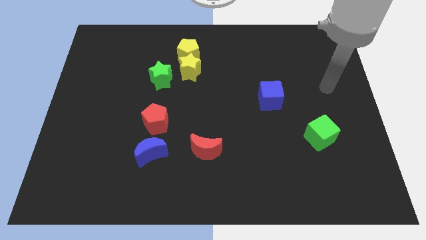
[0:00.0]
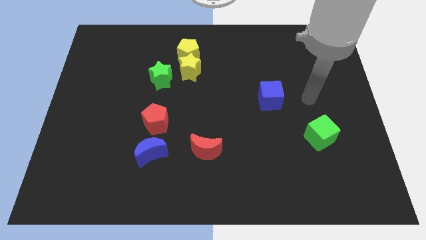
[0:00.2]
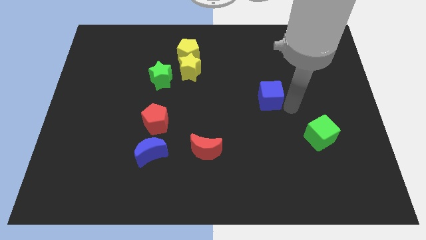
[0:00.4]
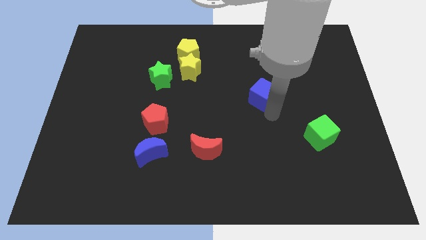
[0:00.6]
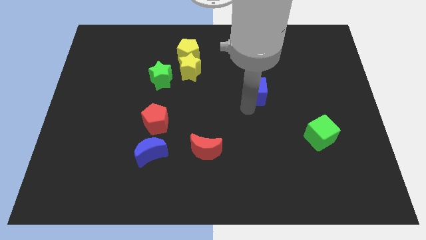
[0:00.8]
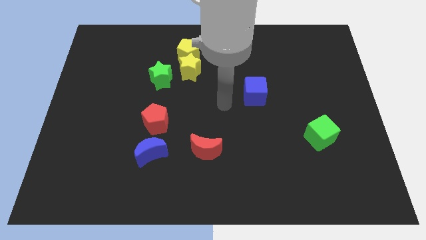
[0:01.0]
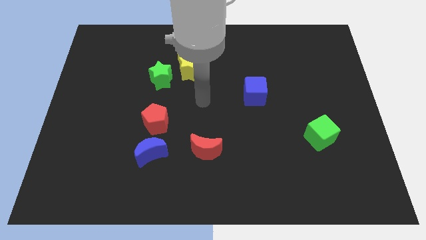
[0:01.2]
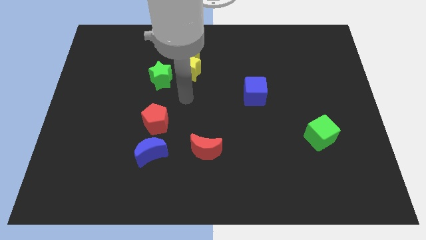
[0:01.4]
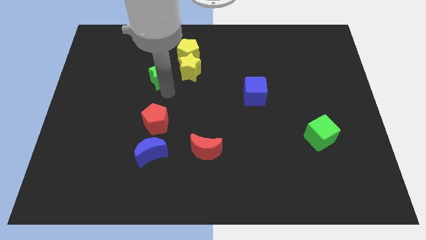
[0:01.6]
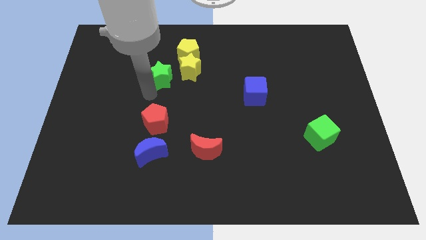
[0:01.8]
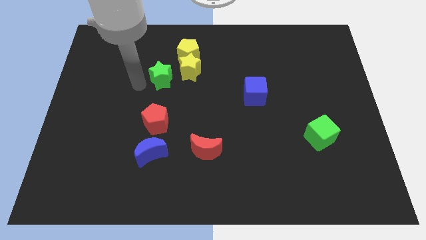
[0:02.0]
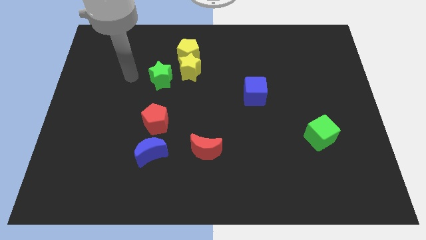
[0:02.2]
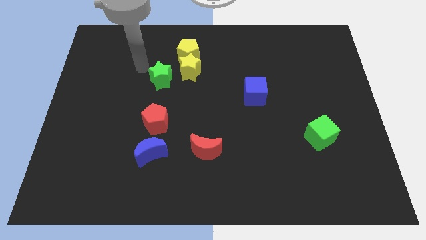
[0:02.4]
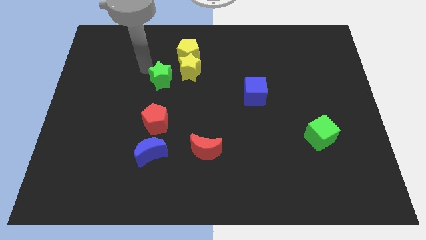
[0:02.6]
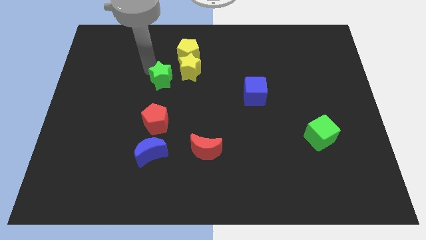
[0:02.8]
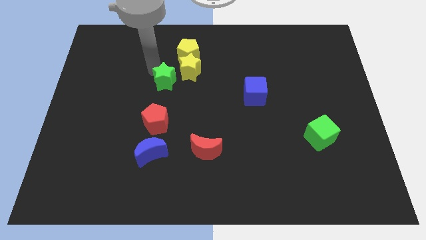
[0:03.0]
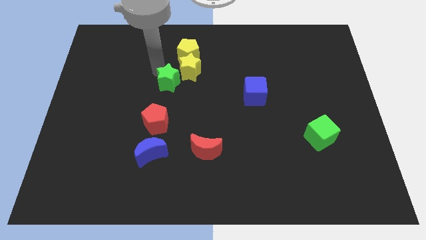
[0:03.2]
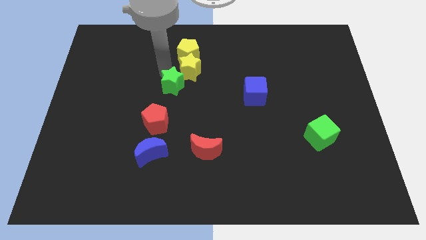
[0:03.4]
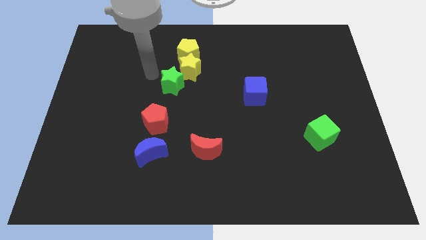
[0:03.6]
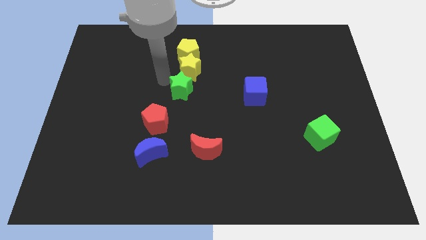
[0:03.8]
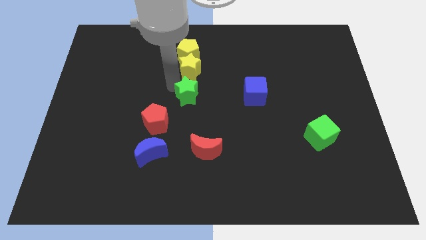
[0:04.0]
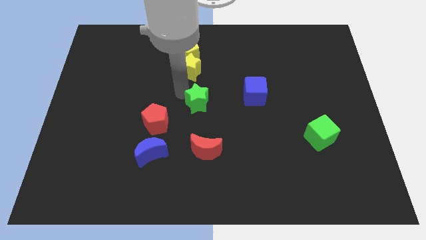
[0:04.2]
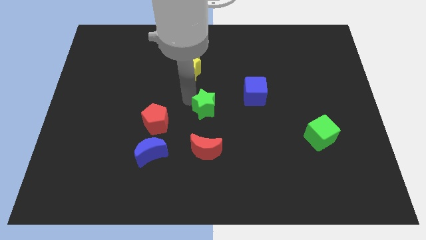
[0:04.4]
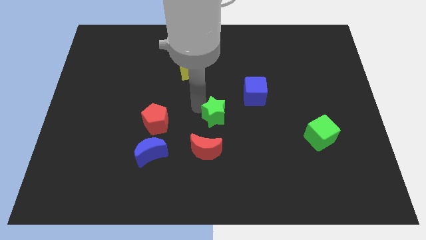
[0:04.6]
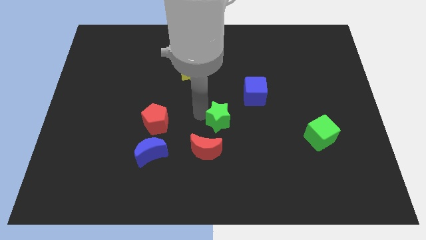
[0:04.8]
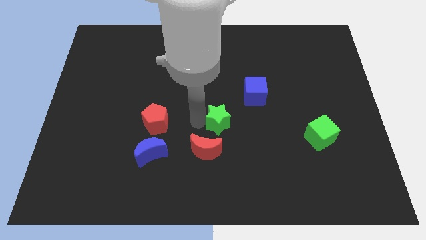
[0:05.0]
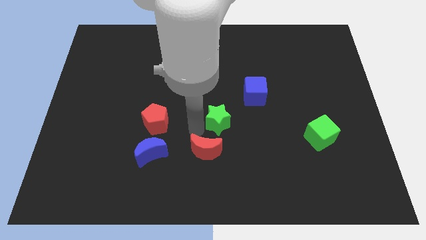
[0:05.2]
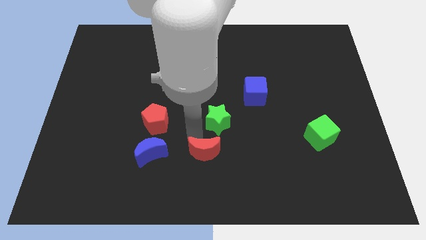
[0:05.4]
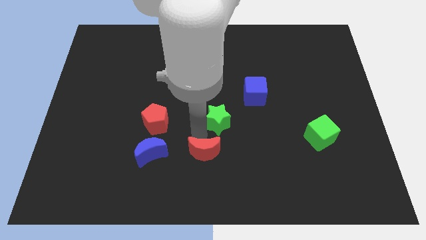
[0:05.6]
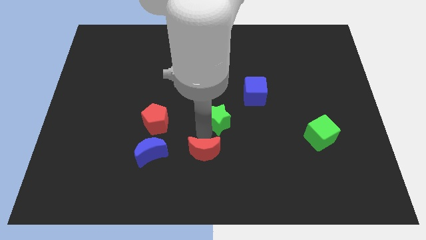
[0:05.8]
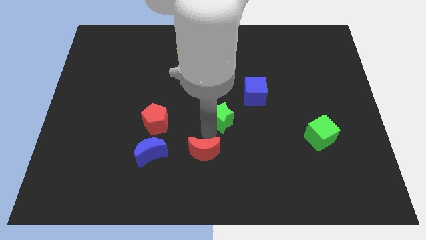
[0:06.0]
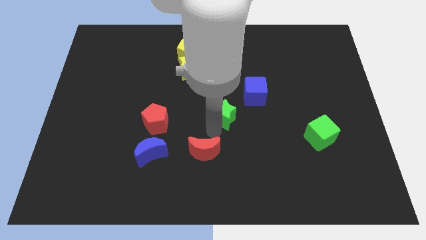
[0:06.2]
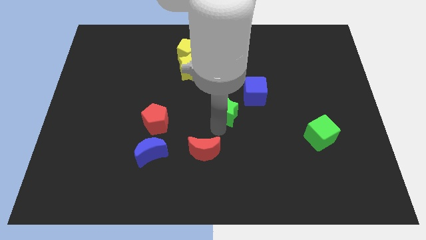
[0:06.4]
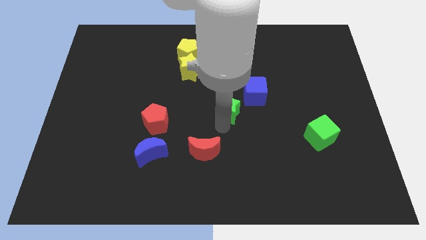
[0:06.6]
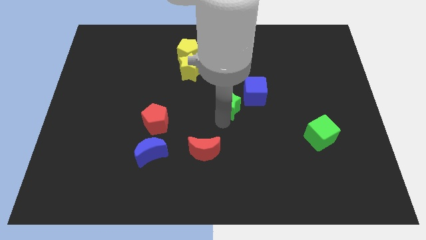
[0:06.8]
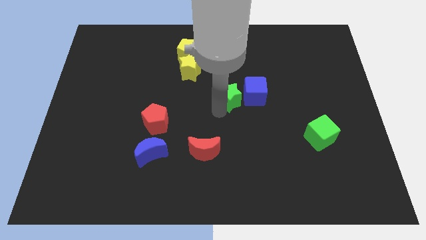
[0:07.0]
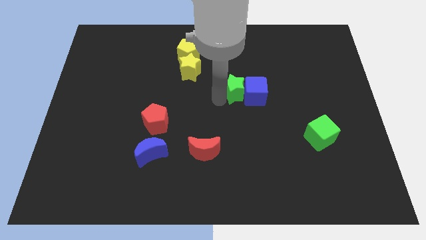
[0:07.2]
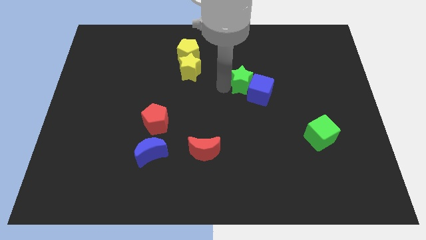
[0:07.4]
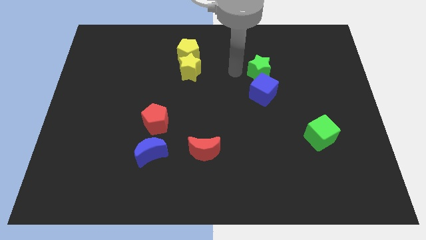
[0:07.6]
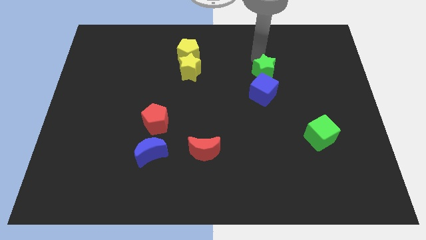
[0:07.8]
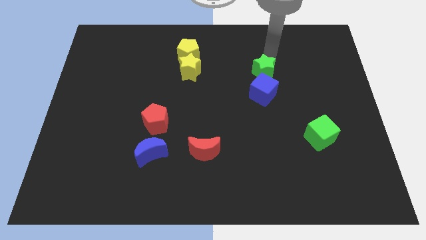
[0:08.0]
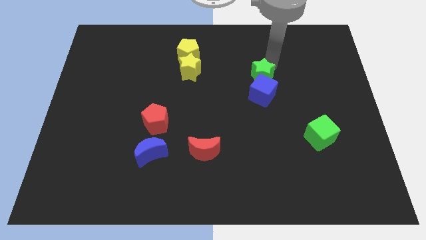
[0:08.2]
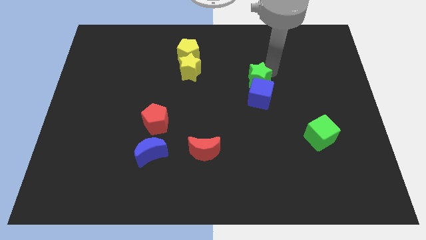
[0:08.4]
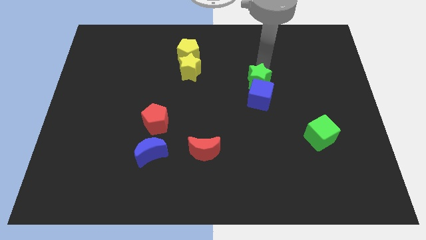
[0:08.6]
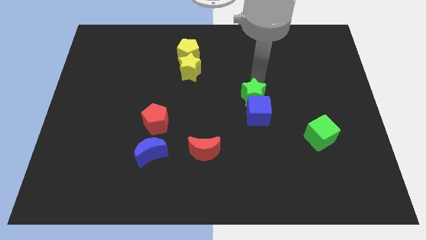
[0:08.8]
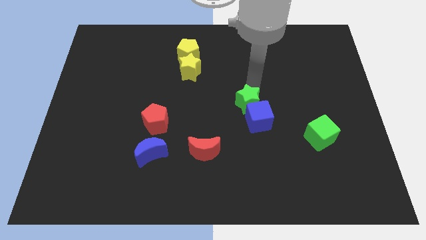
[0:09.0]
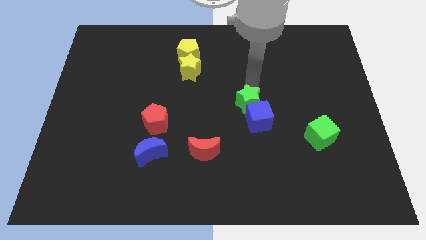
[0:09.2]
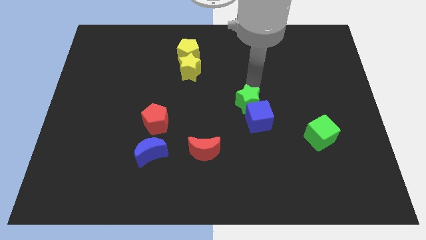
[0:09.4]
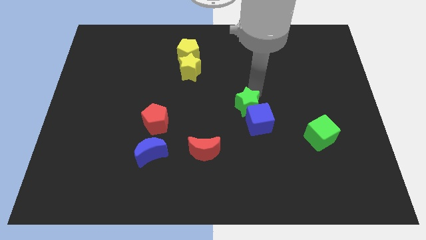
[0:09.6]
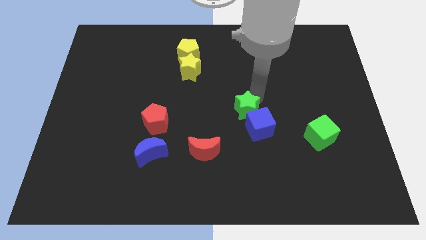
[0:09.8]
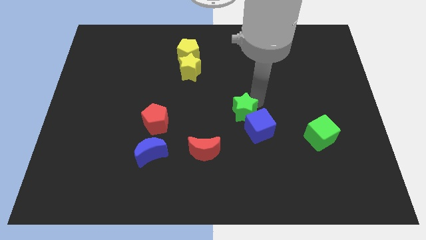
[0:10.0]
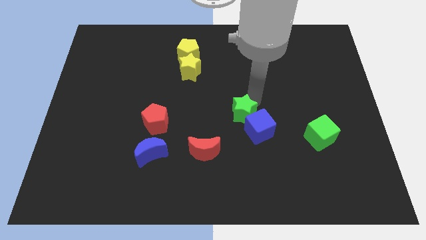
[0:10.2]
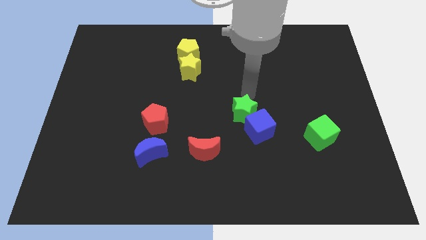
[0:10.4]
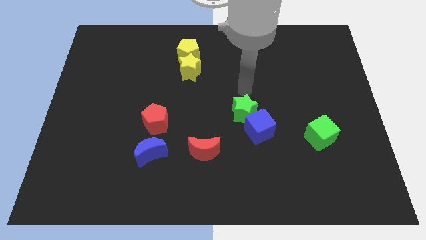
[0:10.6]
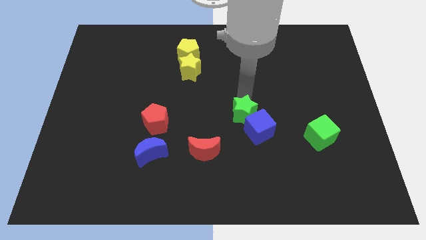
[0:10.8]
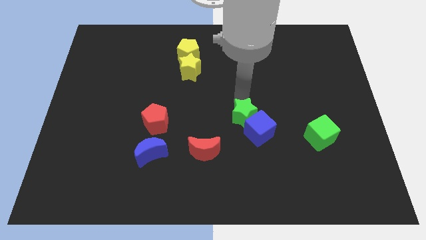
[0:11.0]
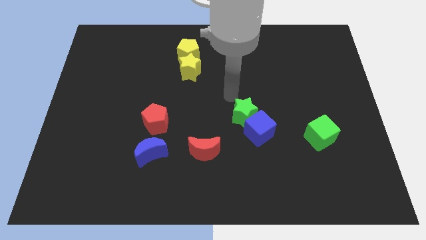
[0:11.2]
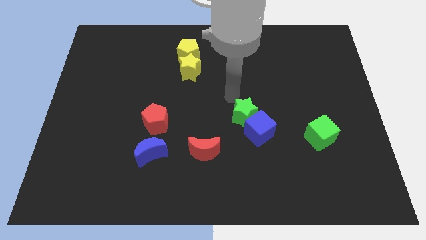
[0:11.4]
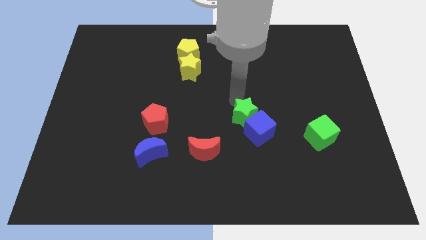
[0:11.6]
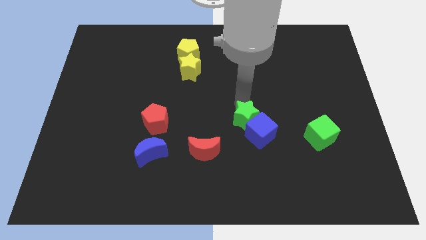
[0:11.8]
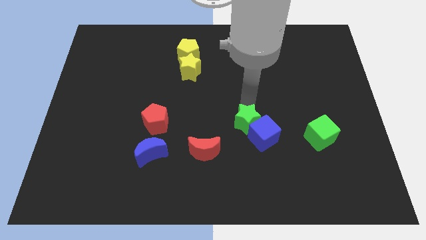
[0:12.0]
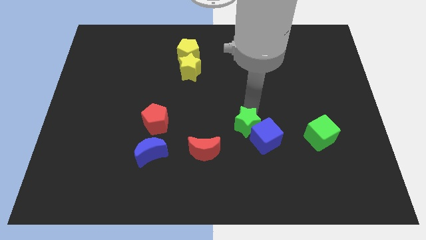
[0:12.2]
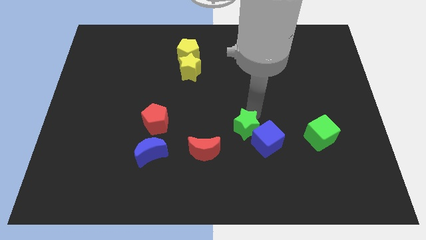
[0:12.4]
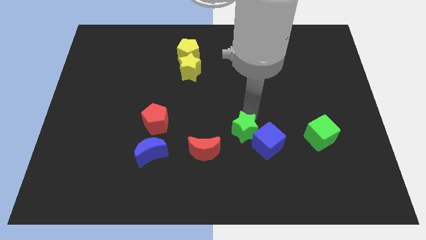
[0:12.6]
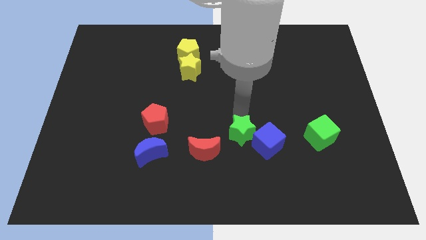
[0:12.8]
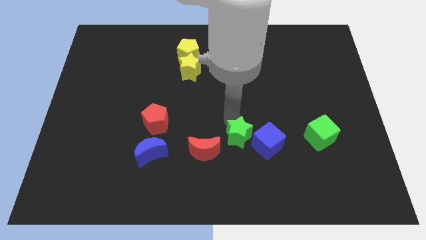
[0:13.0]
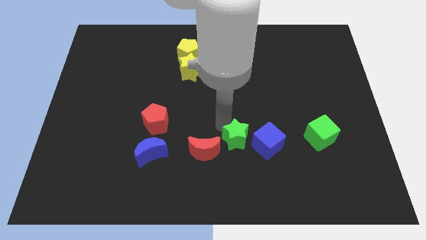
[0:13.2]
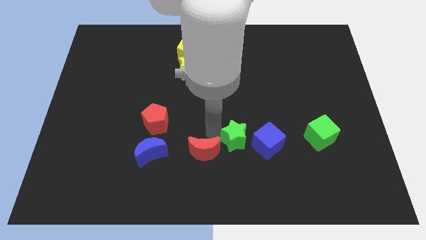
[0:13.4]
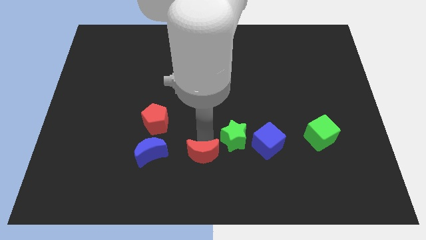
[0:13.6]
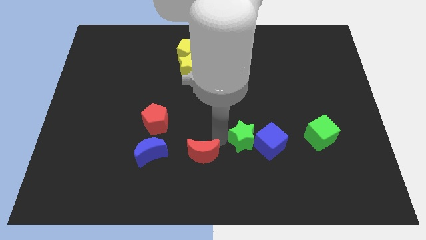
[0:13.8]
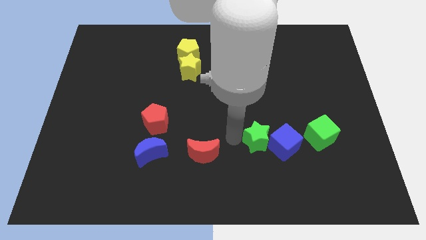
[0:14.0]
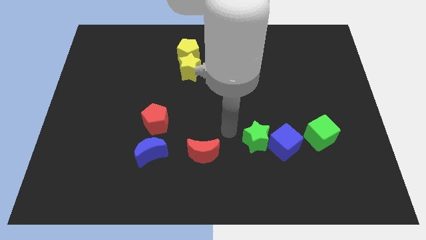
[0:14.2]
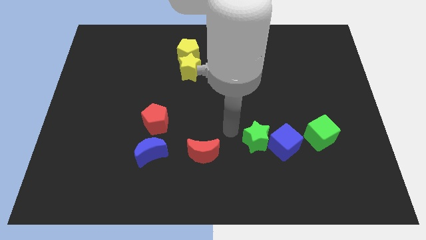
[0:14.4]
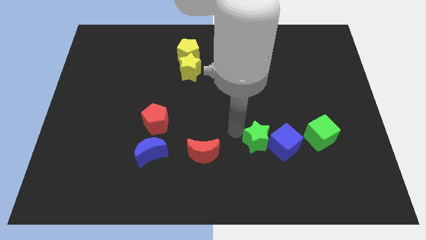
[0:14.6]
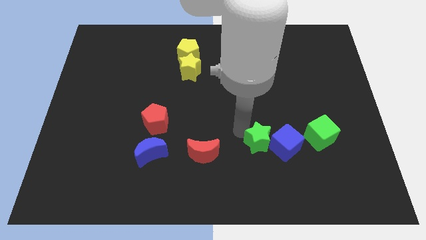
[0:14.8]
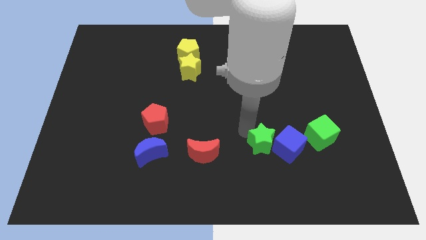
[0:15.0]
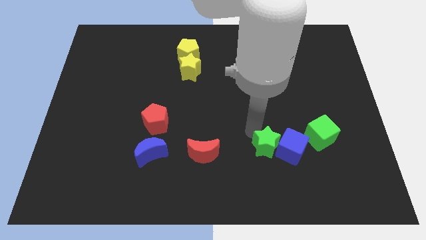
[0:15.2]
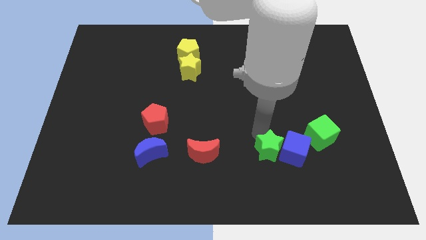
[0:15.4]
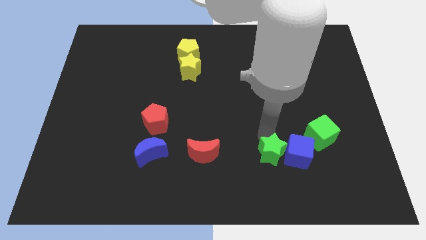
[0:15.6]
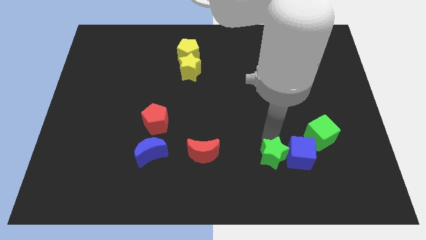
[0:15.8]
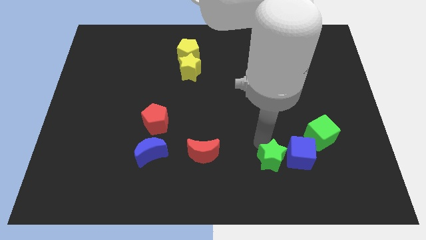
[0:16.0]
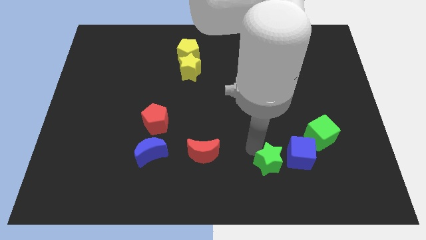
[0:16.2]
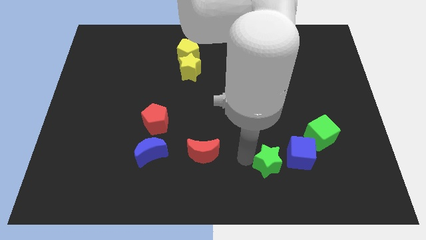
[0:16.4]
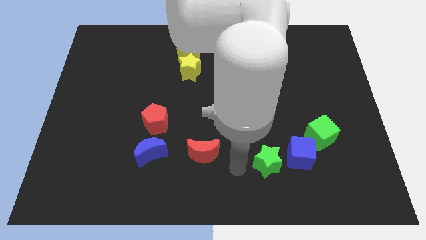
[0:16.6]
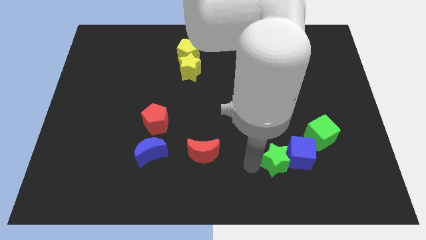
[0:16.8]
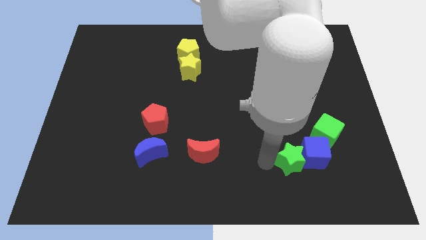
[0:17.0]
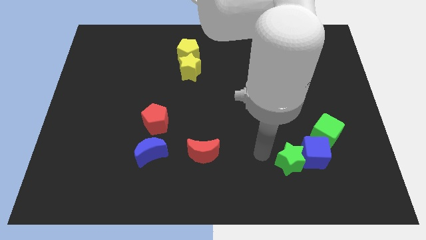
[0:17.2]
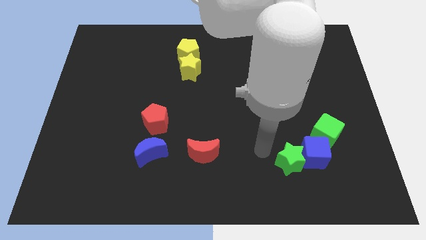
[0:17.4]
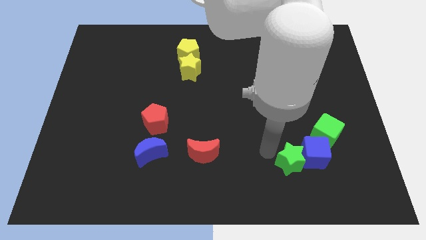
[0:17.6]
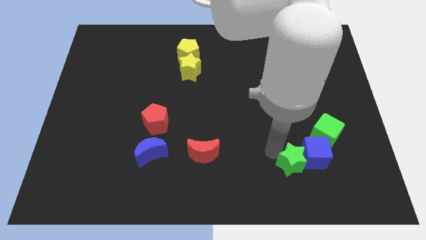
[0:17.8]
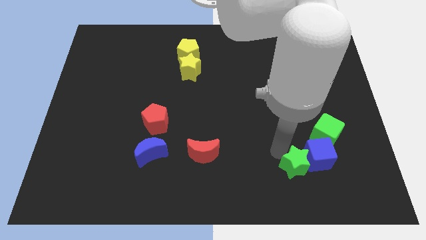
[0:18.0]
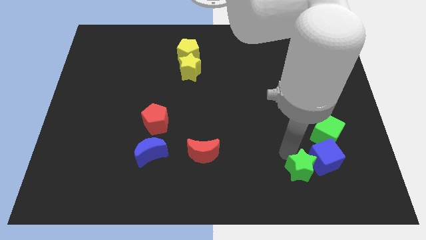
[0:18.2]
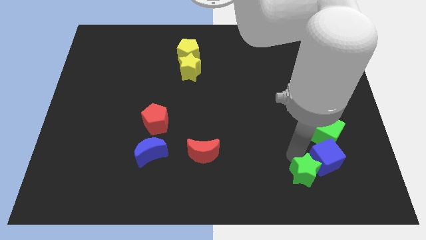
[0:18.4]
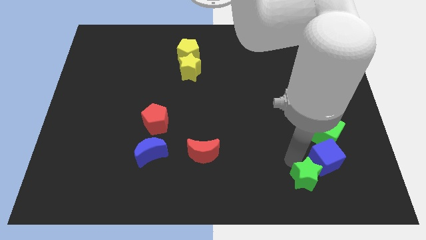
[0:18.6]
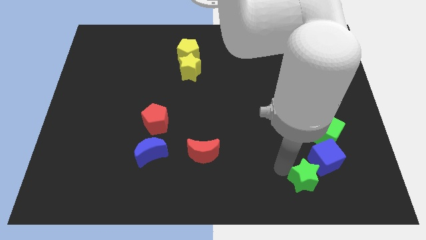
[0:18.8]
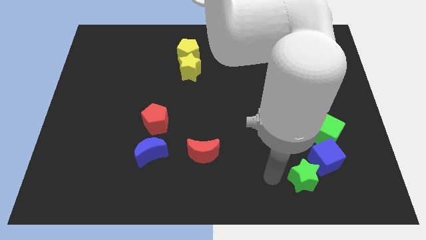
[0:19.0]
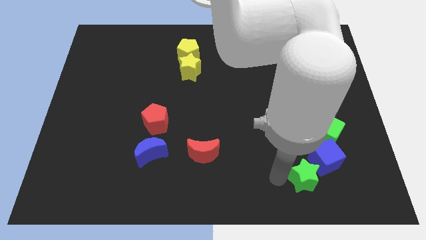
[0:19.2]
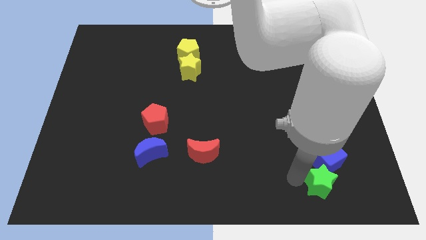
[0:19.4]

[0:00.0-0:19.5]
push the green star below the green cube
